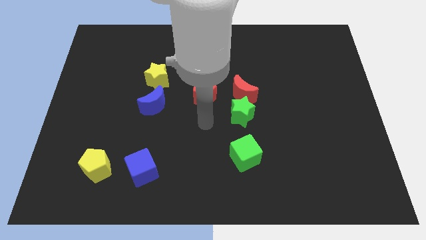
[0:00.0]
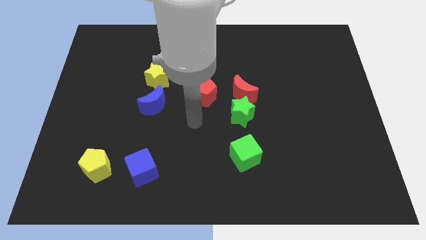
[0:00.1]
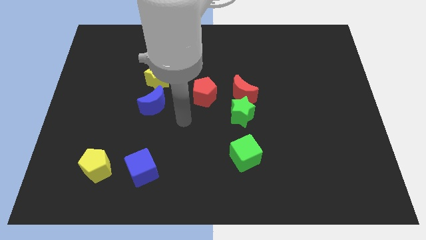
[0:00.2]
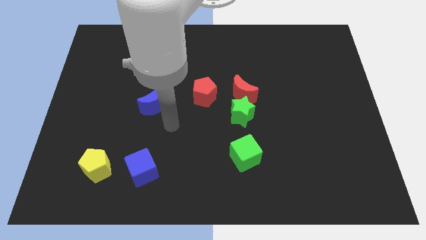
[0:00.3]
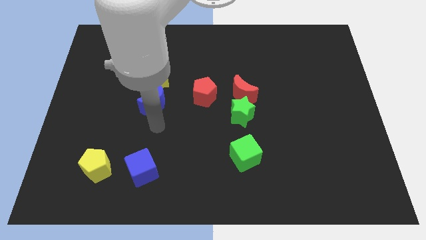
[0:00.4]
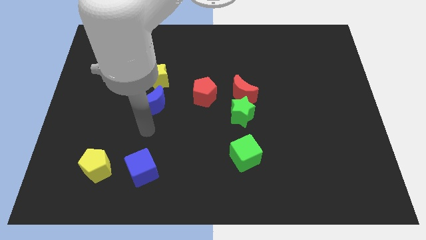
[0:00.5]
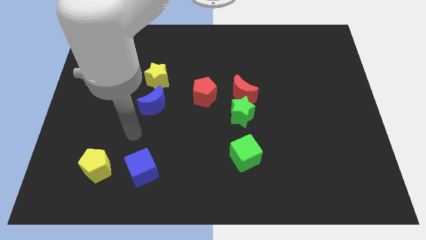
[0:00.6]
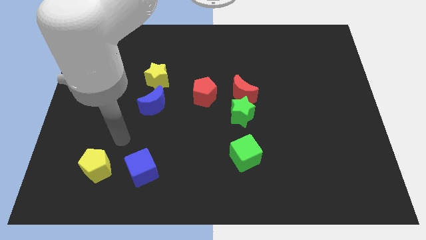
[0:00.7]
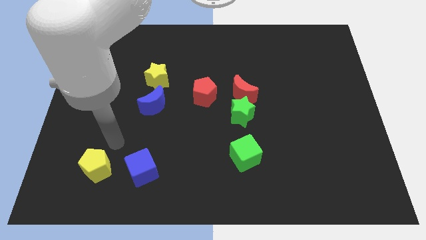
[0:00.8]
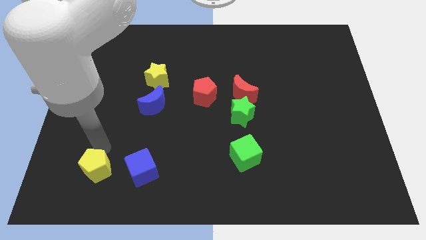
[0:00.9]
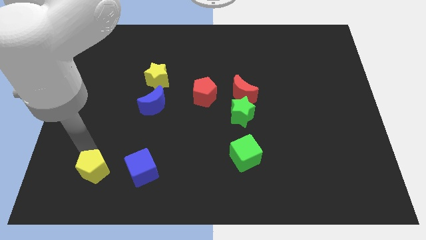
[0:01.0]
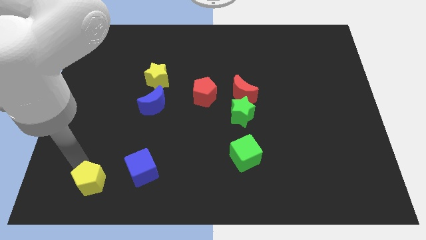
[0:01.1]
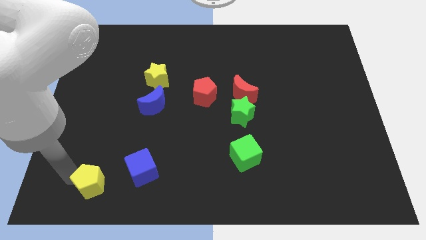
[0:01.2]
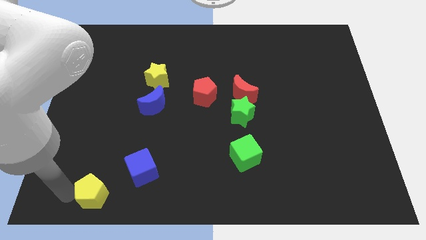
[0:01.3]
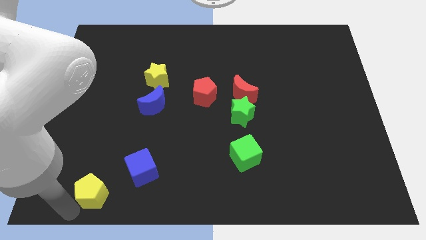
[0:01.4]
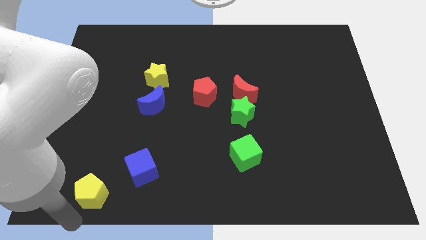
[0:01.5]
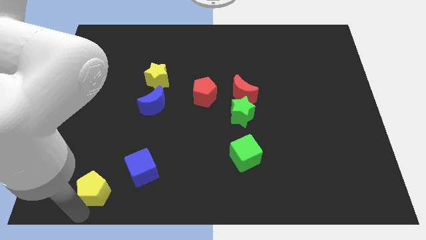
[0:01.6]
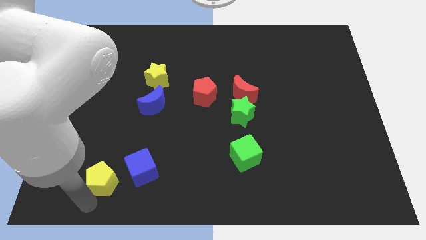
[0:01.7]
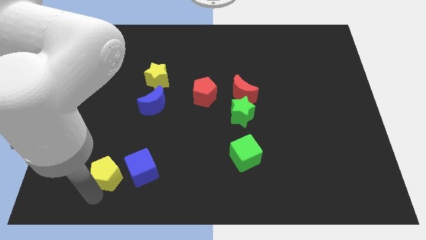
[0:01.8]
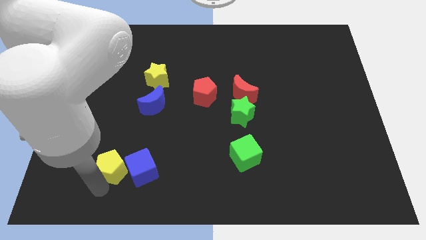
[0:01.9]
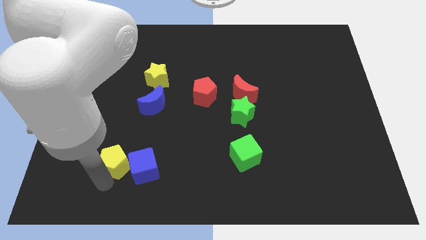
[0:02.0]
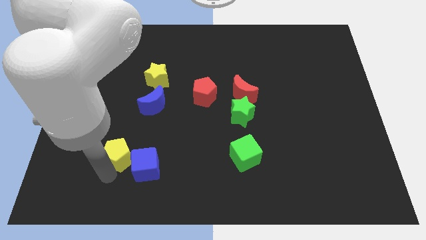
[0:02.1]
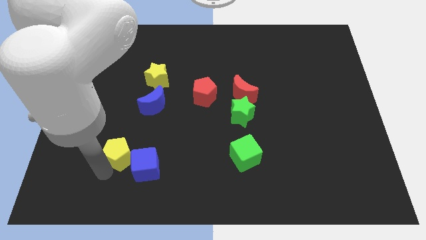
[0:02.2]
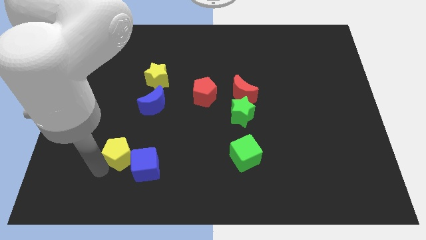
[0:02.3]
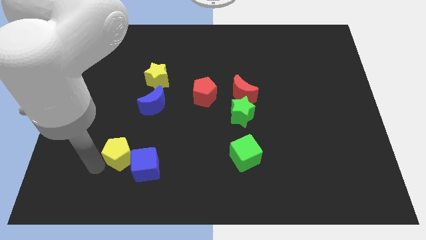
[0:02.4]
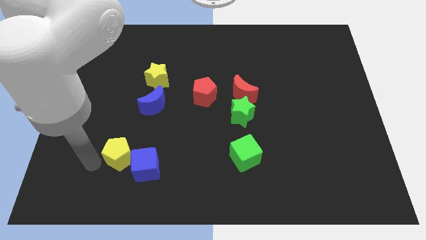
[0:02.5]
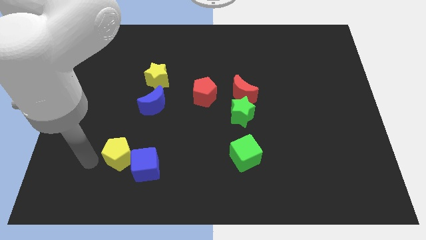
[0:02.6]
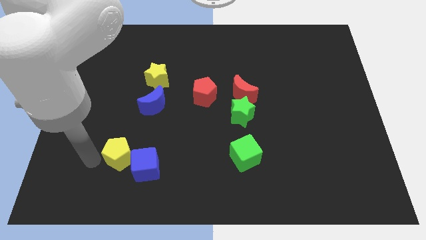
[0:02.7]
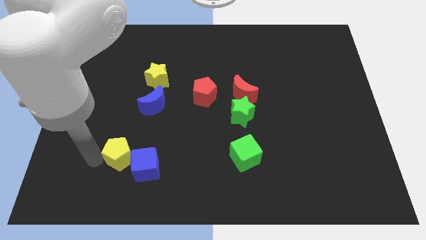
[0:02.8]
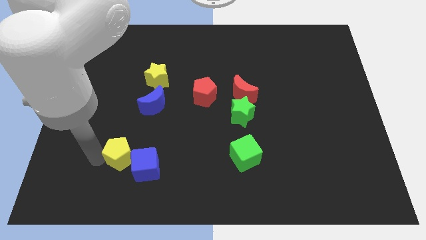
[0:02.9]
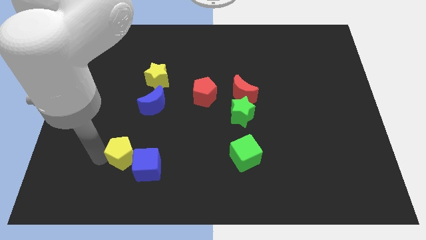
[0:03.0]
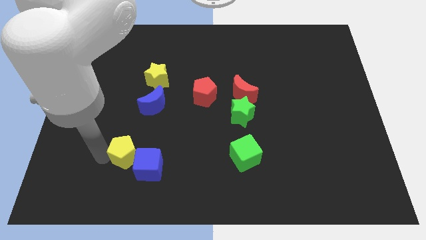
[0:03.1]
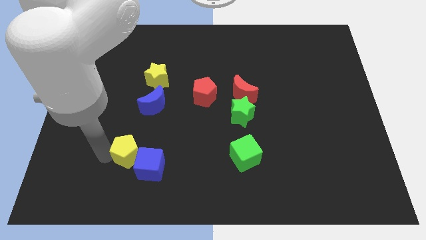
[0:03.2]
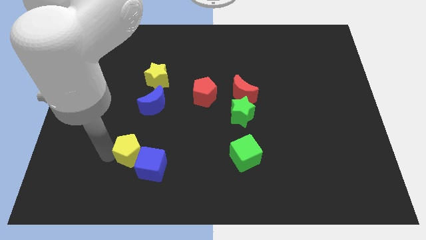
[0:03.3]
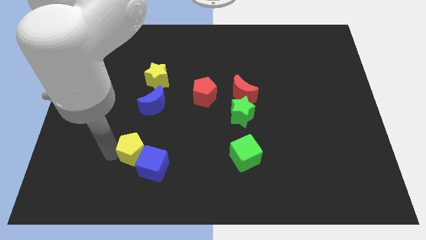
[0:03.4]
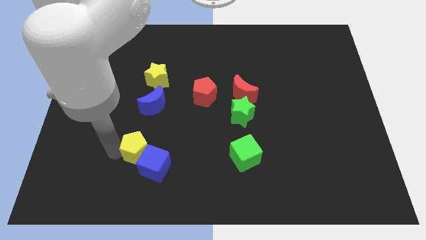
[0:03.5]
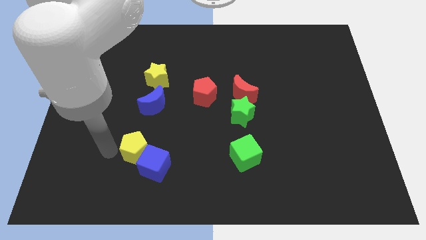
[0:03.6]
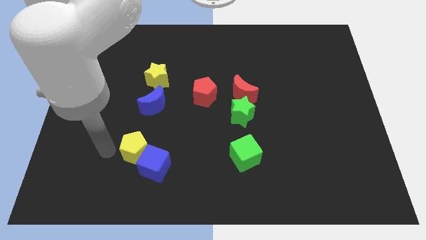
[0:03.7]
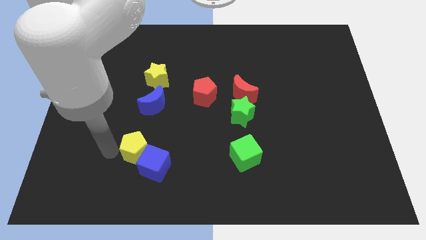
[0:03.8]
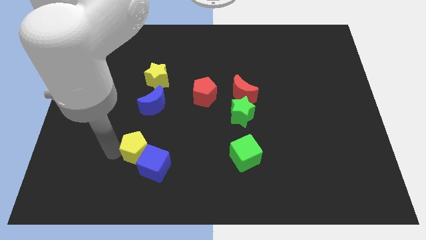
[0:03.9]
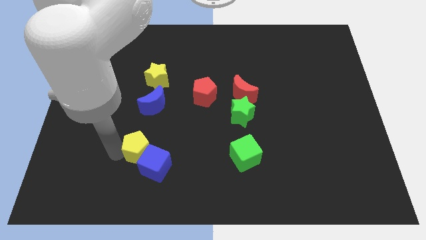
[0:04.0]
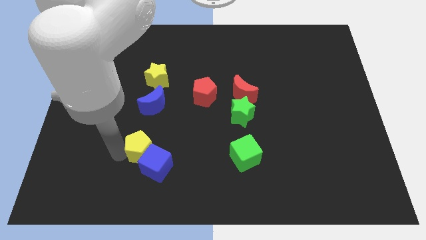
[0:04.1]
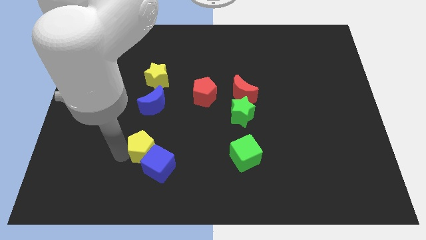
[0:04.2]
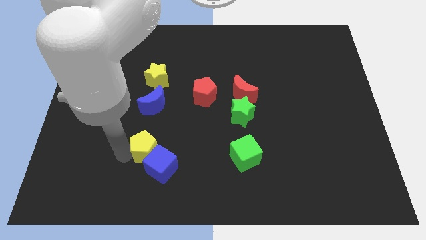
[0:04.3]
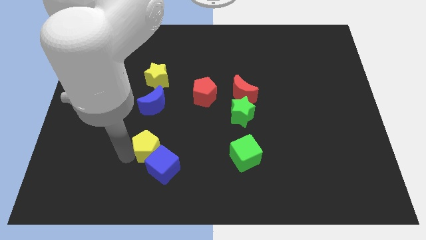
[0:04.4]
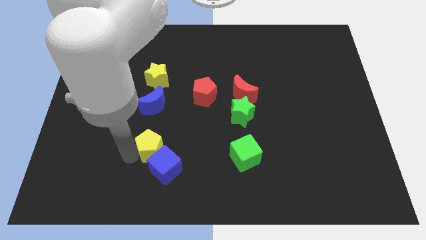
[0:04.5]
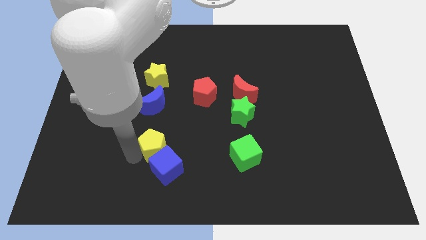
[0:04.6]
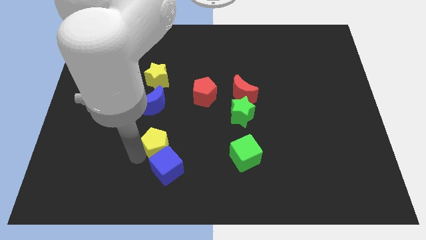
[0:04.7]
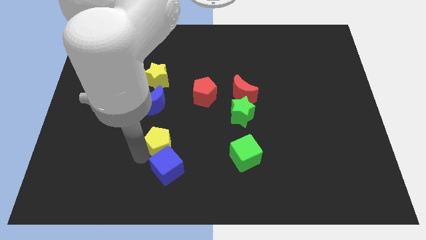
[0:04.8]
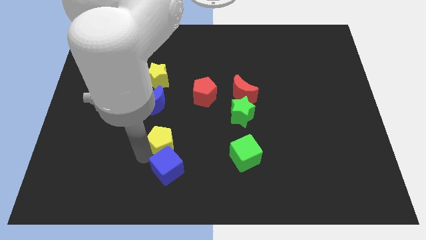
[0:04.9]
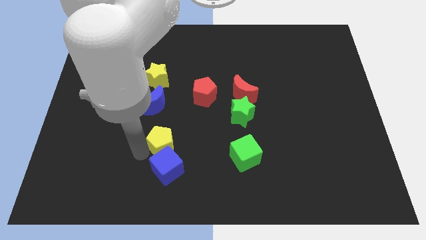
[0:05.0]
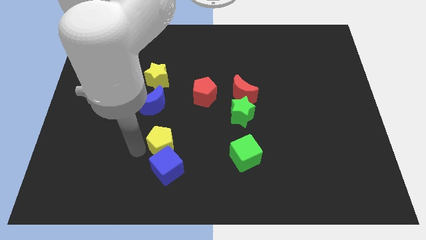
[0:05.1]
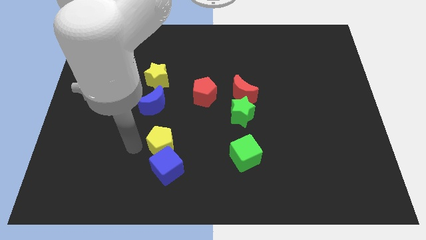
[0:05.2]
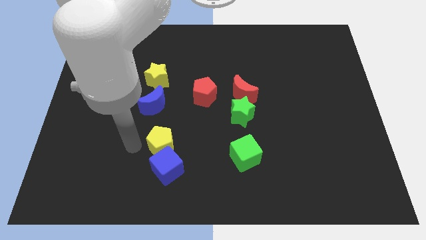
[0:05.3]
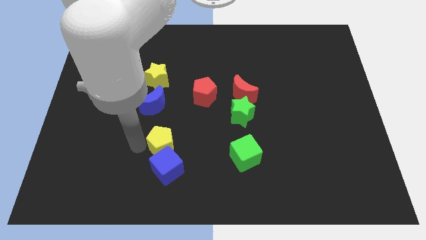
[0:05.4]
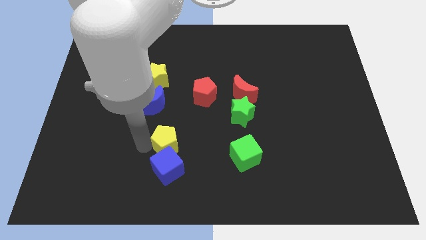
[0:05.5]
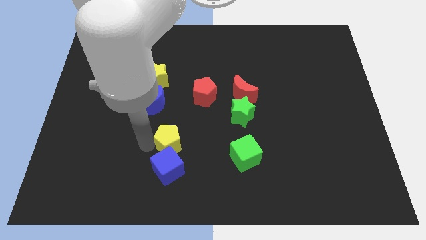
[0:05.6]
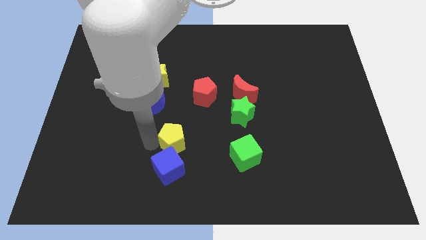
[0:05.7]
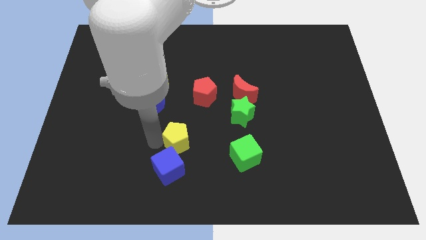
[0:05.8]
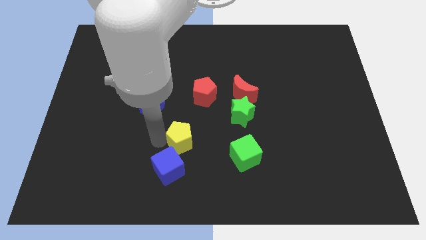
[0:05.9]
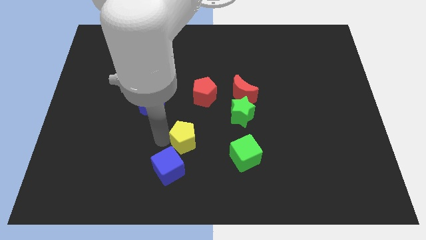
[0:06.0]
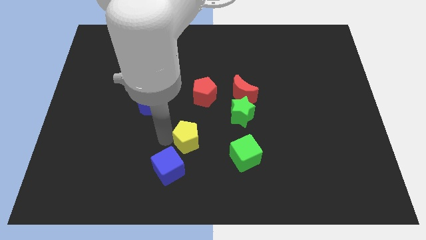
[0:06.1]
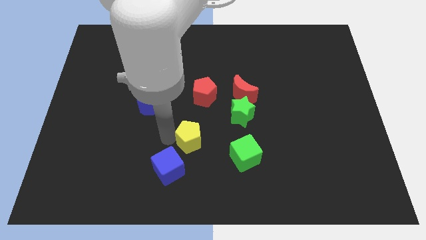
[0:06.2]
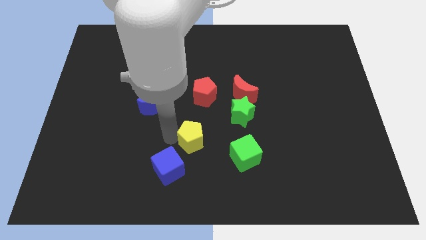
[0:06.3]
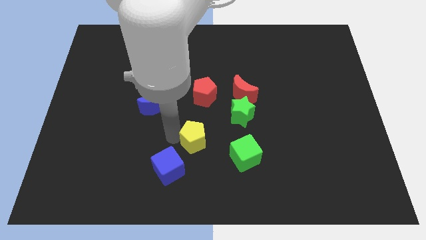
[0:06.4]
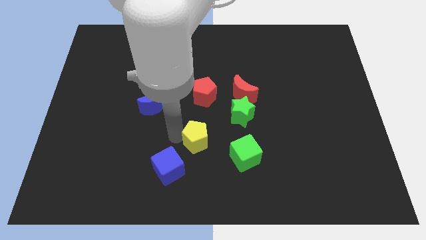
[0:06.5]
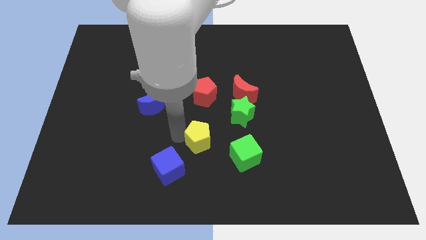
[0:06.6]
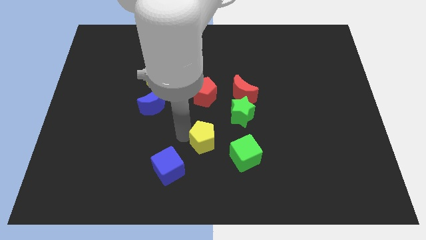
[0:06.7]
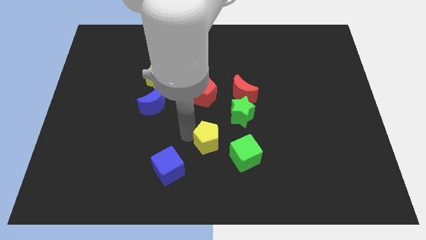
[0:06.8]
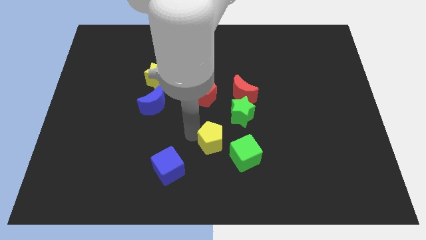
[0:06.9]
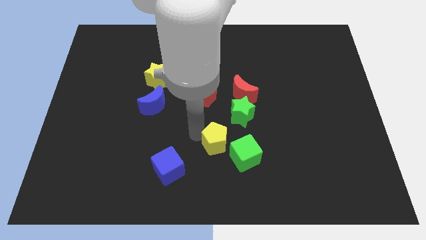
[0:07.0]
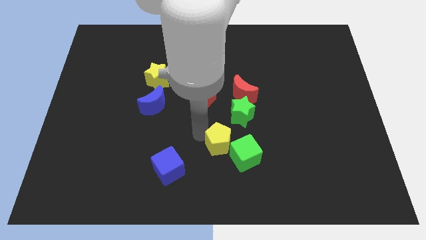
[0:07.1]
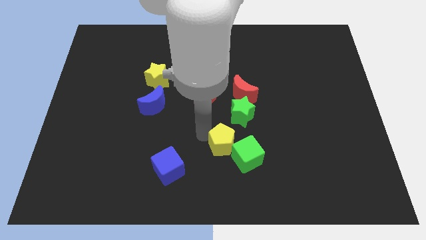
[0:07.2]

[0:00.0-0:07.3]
put the yellow pentagon next to the green cube
